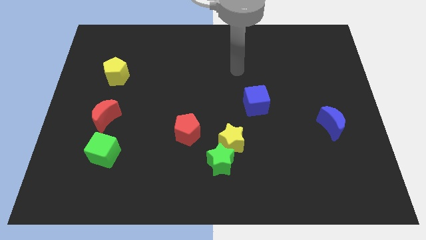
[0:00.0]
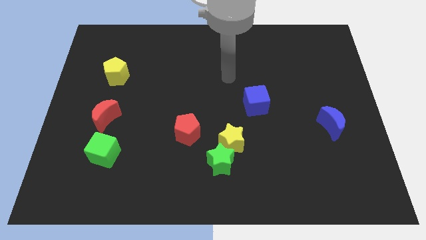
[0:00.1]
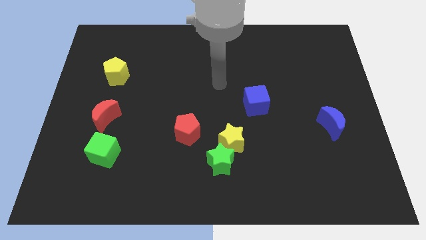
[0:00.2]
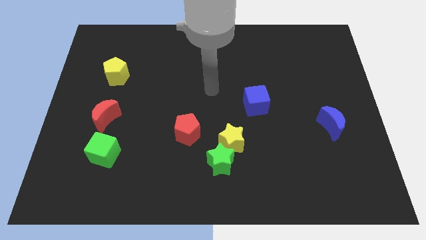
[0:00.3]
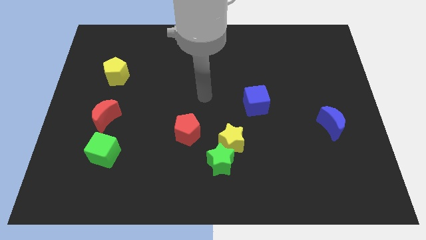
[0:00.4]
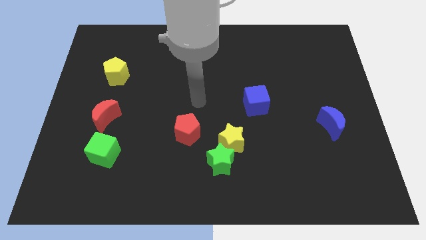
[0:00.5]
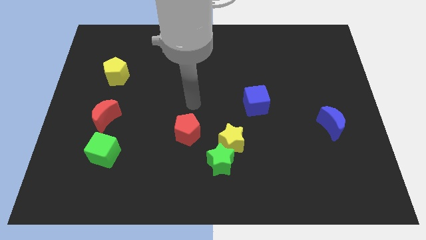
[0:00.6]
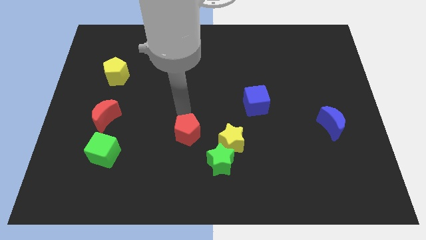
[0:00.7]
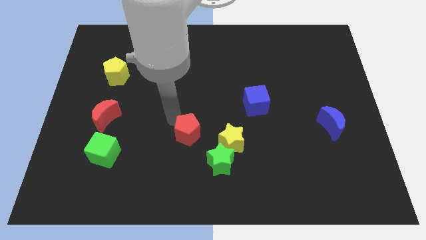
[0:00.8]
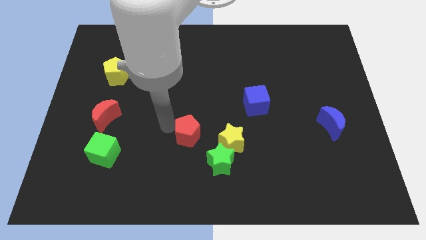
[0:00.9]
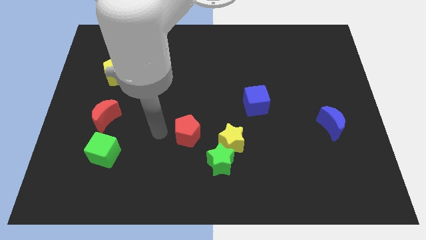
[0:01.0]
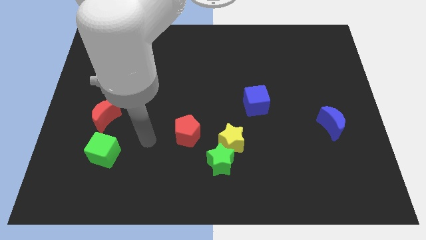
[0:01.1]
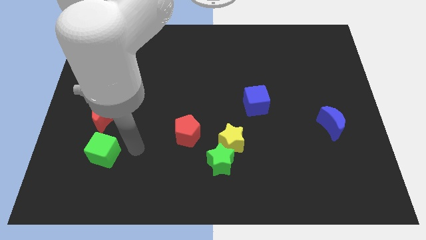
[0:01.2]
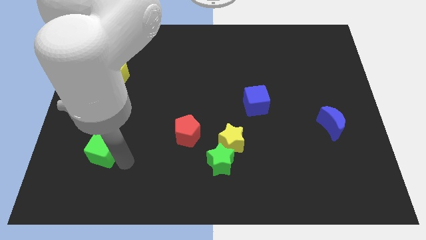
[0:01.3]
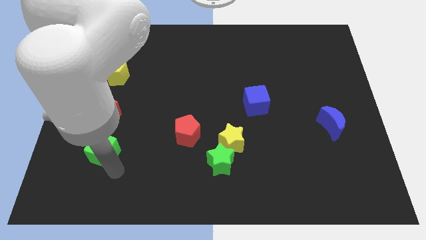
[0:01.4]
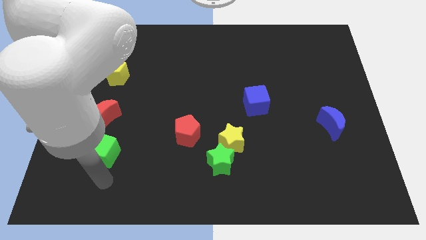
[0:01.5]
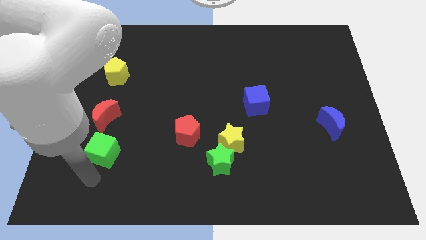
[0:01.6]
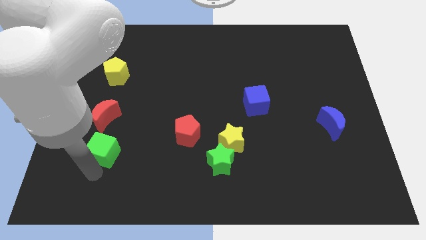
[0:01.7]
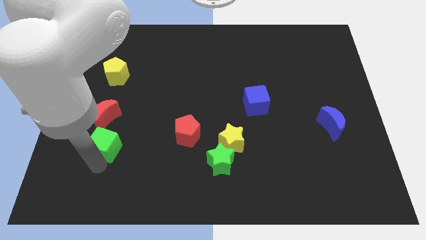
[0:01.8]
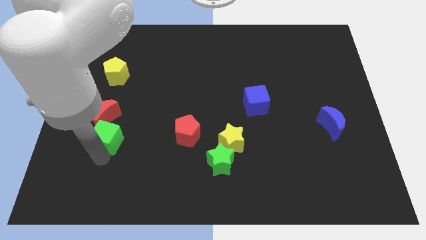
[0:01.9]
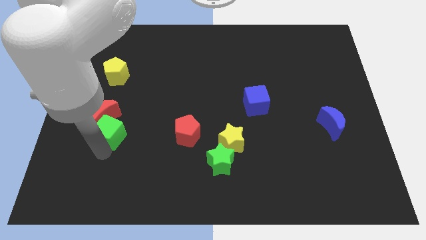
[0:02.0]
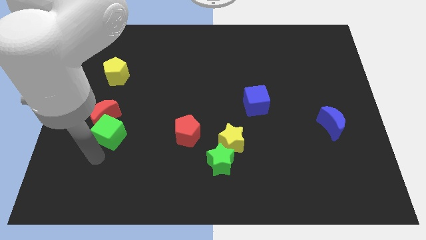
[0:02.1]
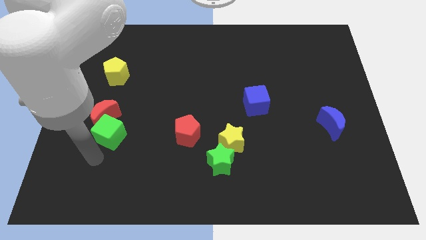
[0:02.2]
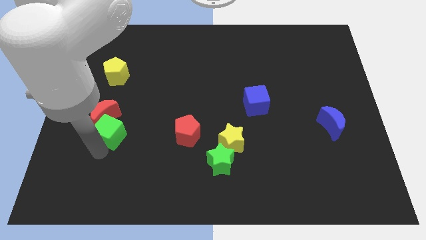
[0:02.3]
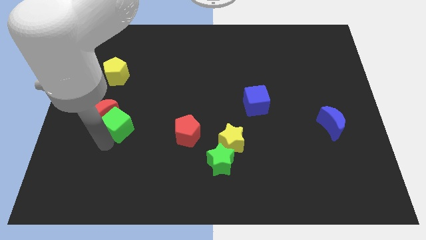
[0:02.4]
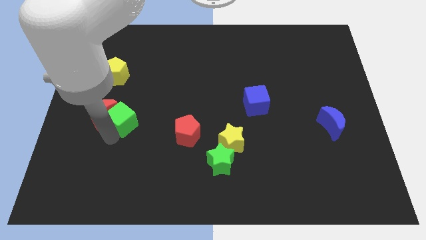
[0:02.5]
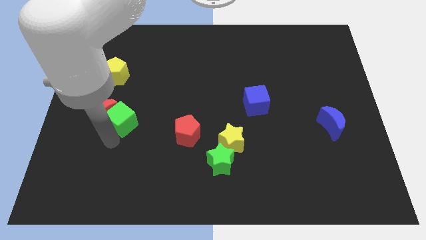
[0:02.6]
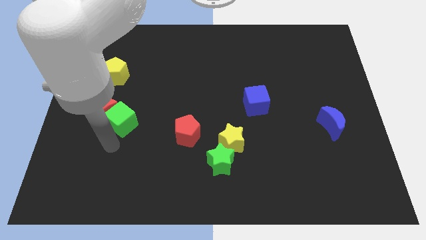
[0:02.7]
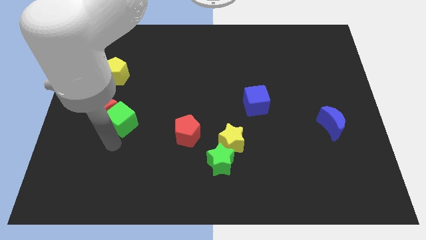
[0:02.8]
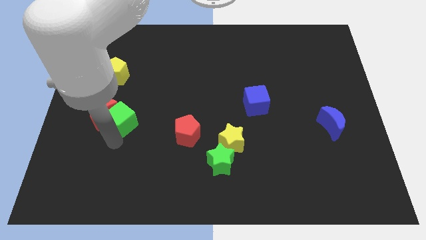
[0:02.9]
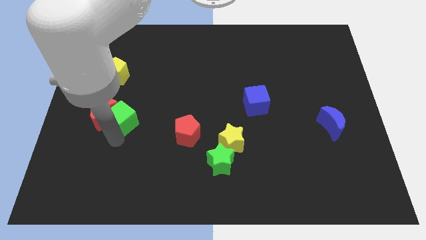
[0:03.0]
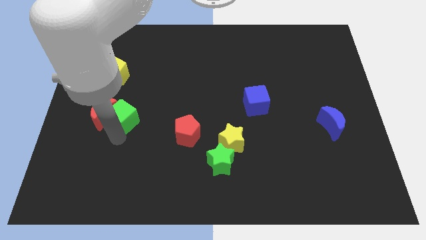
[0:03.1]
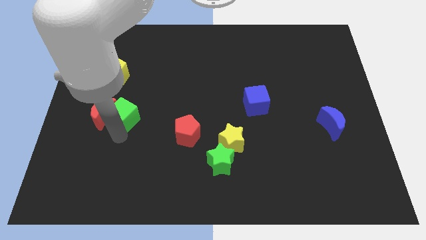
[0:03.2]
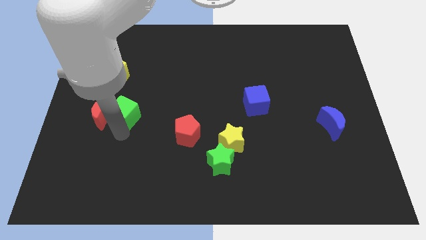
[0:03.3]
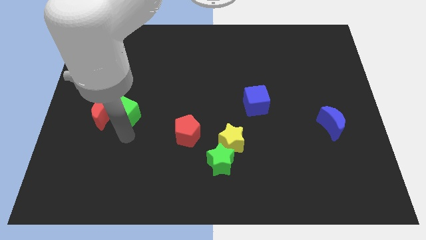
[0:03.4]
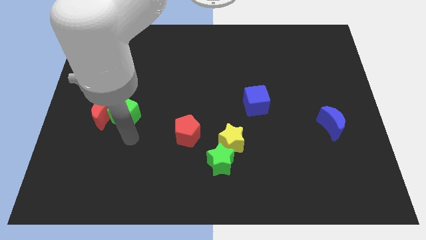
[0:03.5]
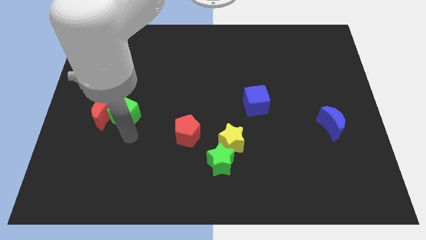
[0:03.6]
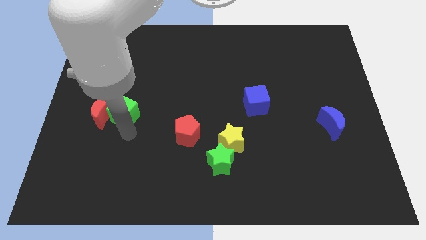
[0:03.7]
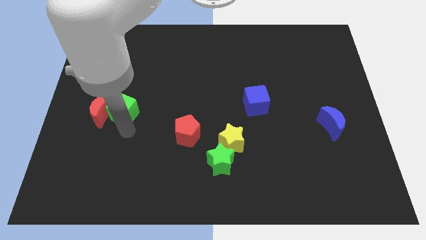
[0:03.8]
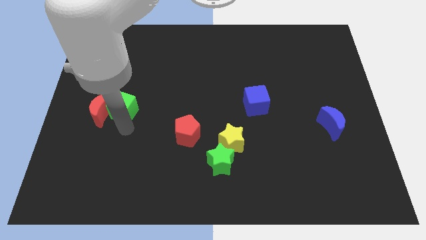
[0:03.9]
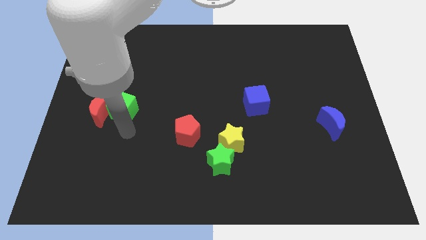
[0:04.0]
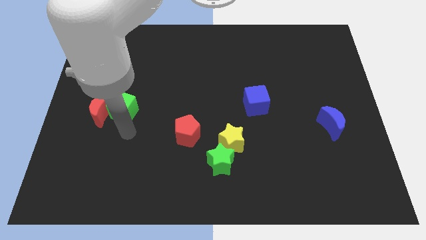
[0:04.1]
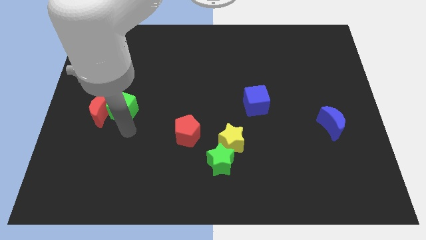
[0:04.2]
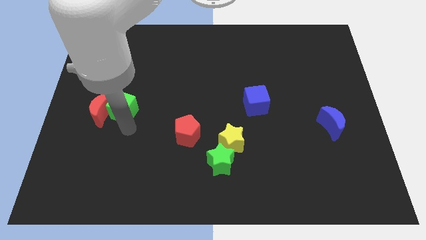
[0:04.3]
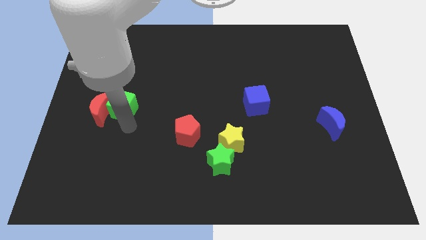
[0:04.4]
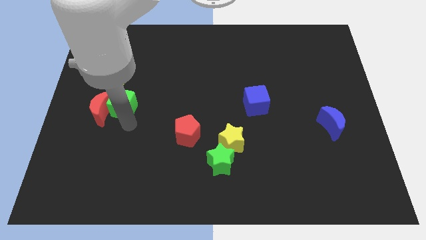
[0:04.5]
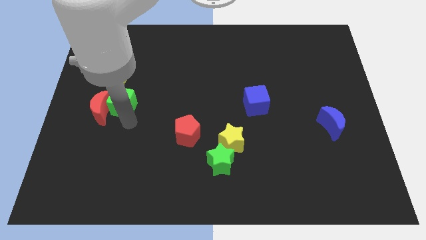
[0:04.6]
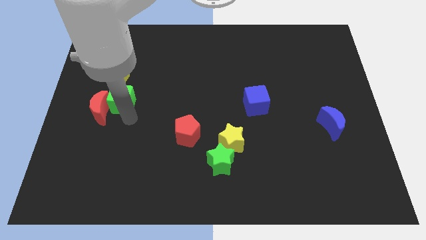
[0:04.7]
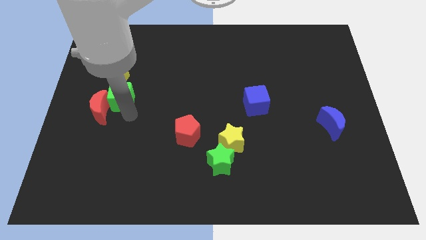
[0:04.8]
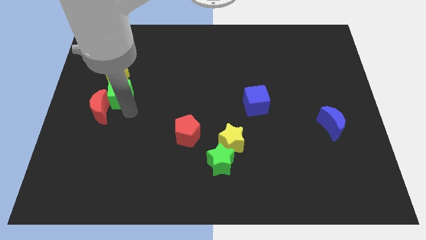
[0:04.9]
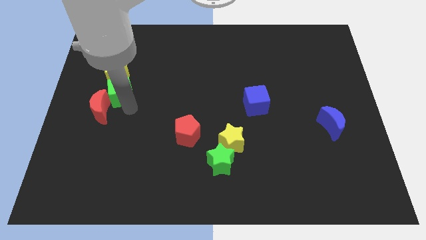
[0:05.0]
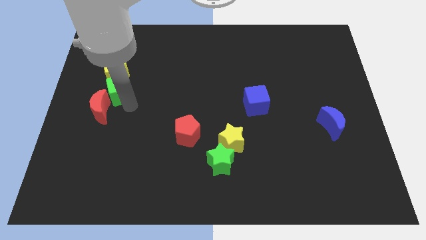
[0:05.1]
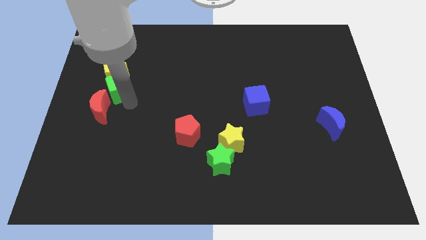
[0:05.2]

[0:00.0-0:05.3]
slide the green cube to the yellow pentagon

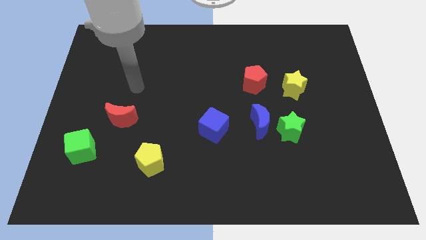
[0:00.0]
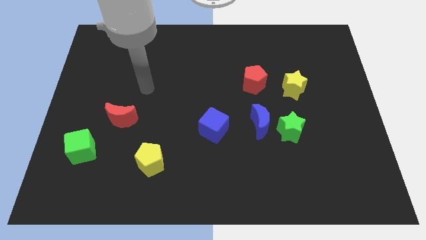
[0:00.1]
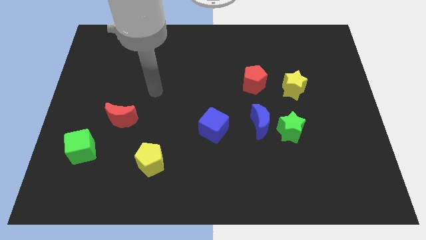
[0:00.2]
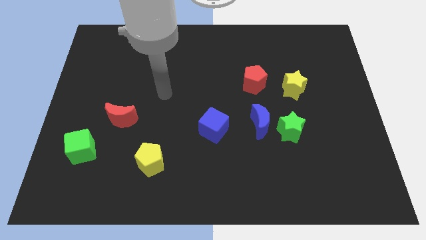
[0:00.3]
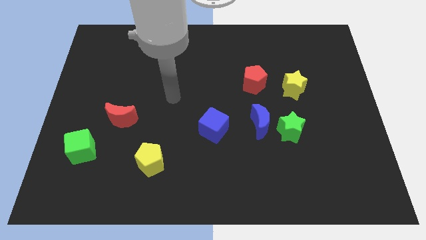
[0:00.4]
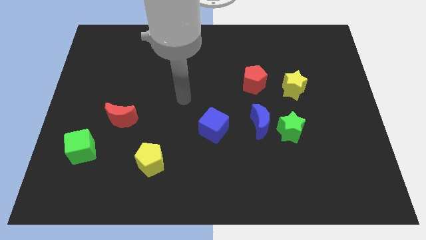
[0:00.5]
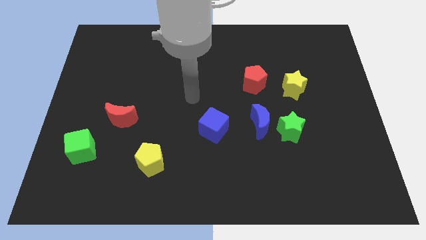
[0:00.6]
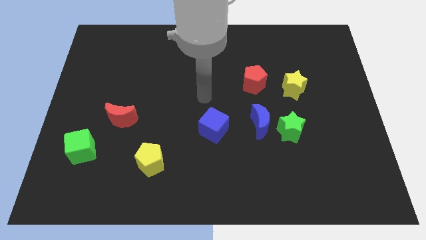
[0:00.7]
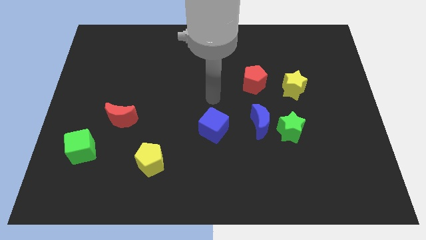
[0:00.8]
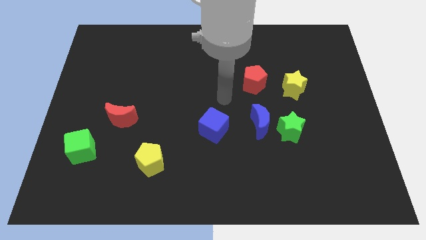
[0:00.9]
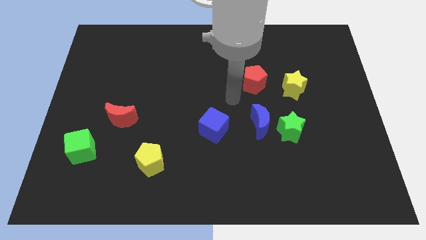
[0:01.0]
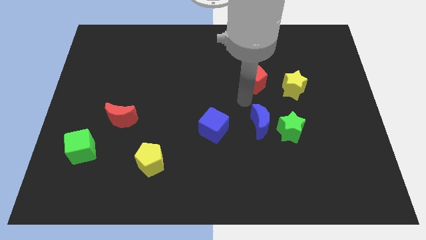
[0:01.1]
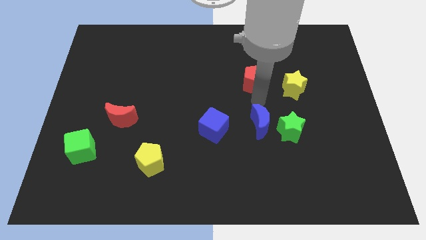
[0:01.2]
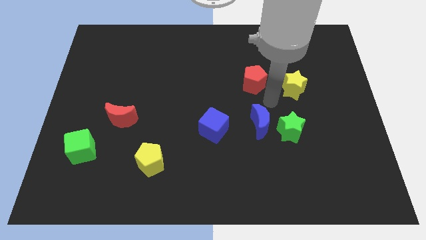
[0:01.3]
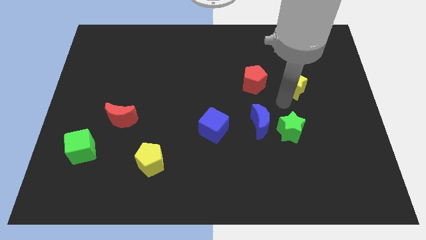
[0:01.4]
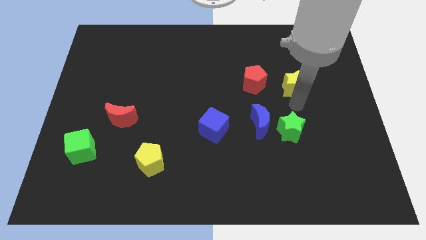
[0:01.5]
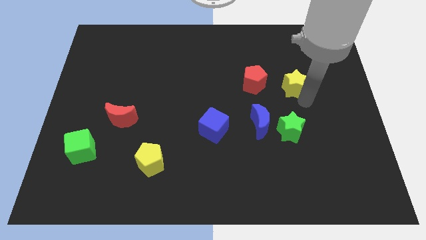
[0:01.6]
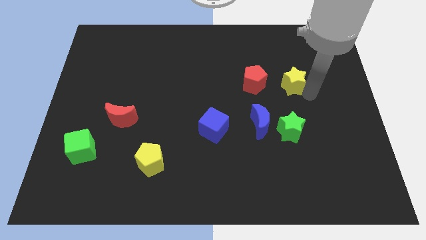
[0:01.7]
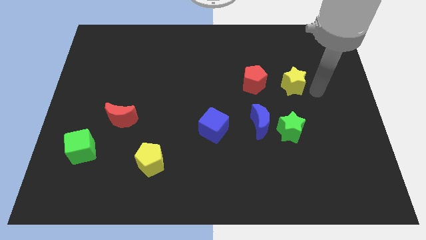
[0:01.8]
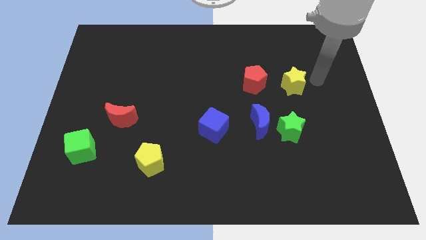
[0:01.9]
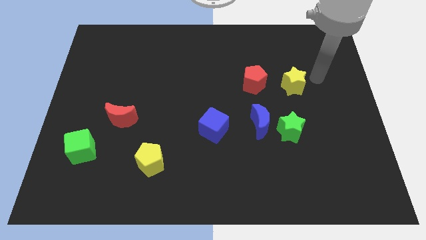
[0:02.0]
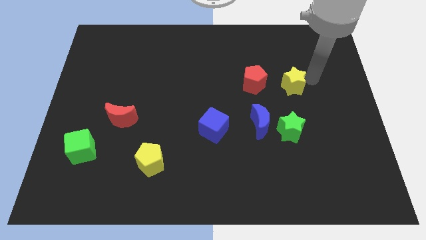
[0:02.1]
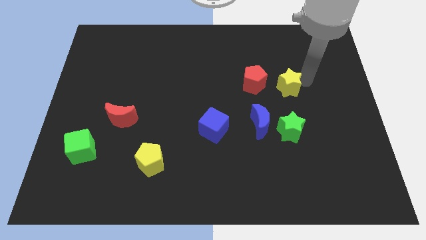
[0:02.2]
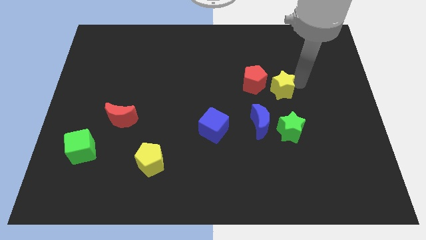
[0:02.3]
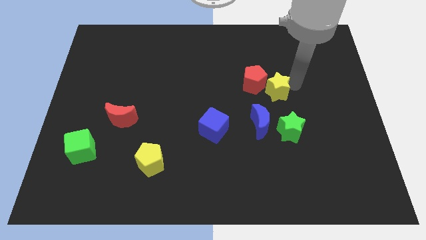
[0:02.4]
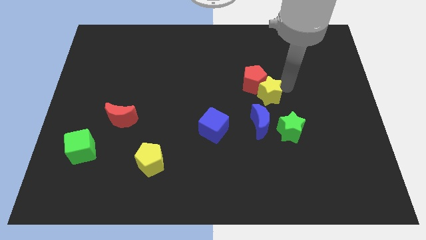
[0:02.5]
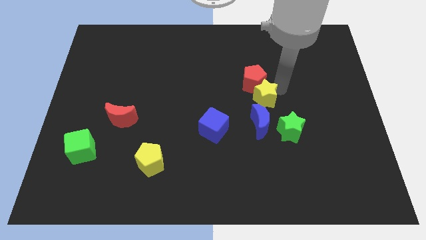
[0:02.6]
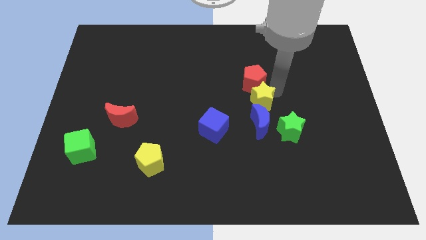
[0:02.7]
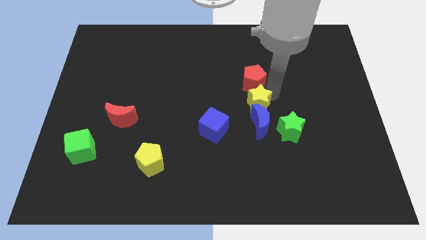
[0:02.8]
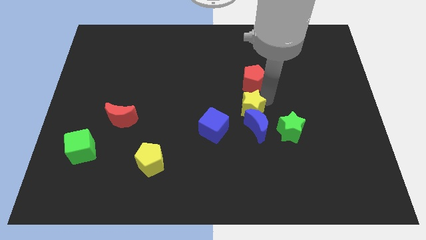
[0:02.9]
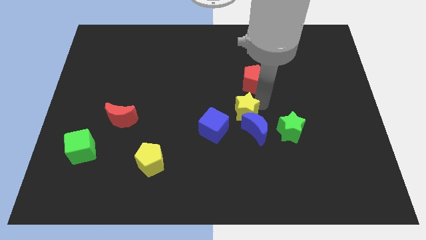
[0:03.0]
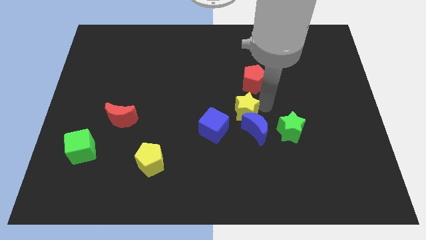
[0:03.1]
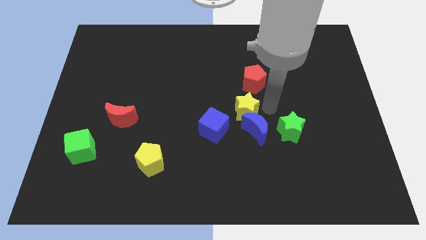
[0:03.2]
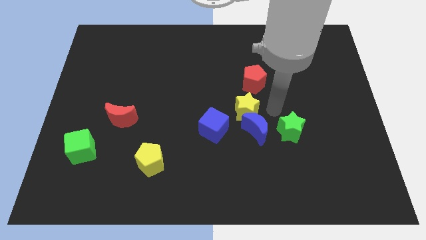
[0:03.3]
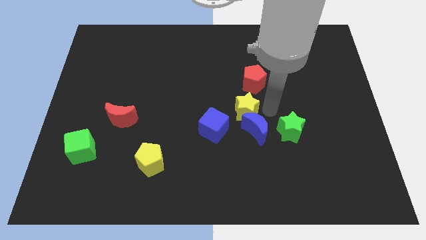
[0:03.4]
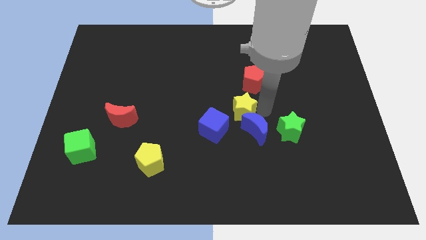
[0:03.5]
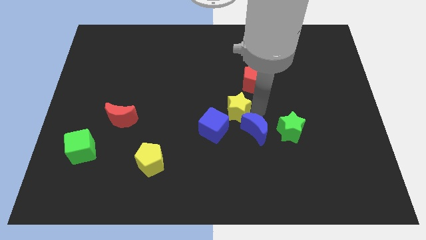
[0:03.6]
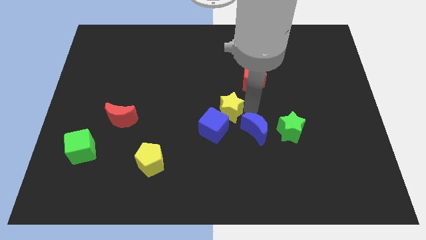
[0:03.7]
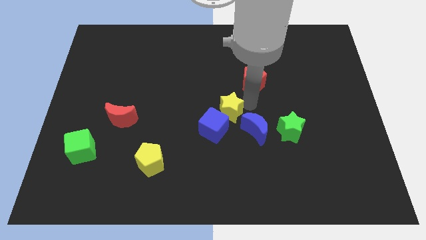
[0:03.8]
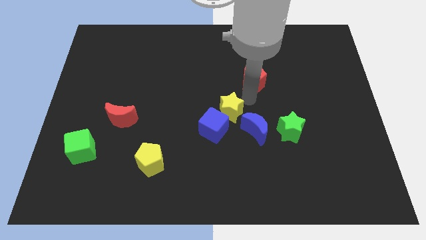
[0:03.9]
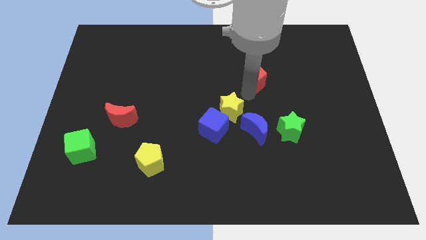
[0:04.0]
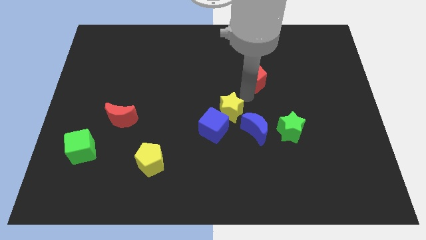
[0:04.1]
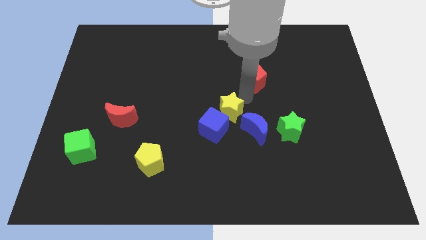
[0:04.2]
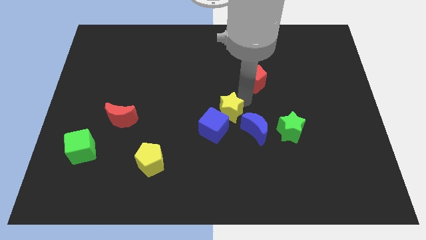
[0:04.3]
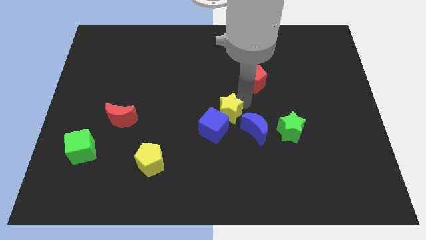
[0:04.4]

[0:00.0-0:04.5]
move the yellow star close to the blue cube
